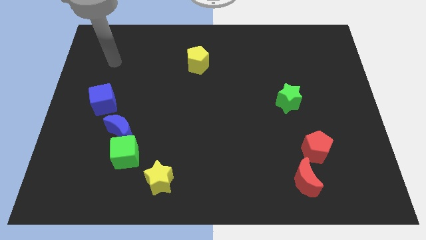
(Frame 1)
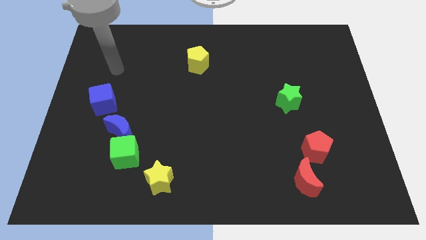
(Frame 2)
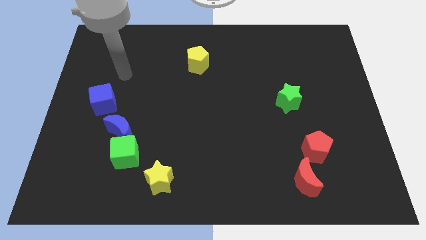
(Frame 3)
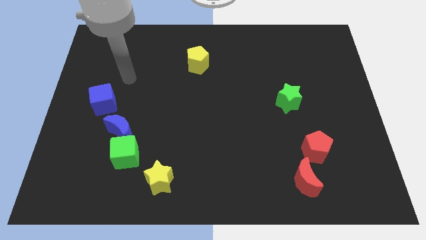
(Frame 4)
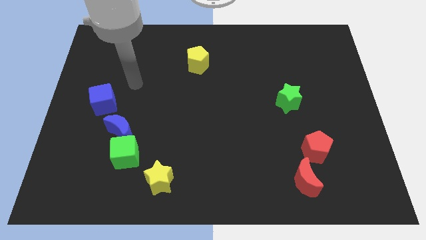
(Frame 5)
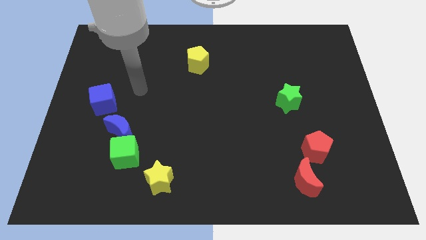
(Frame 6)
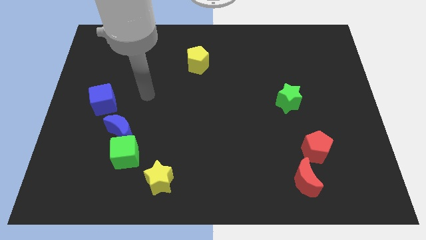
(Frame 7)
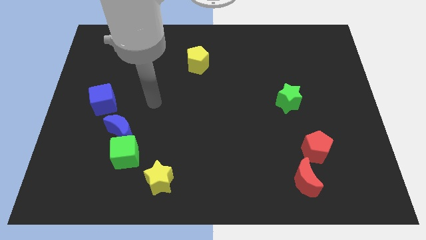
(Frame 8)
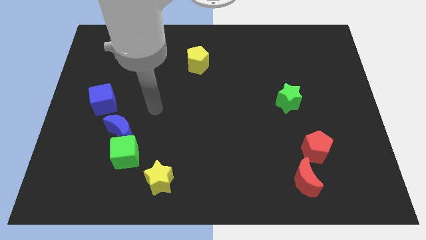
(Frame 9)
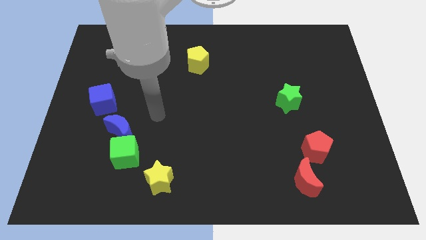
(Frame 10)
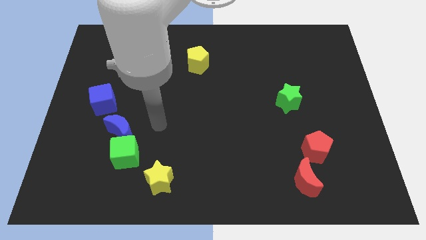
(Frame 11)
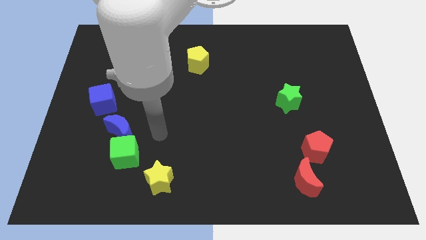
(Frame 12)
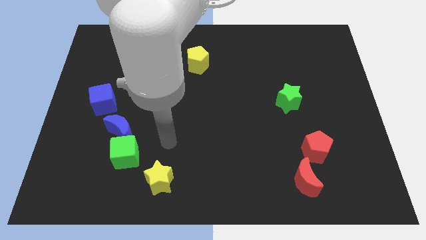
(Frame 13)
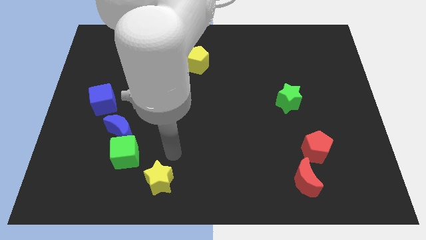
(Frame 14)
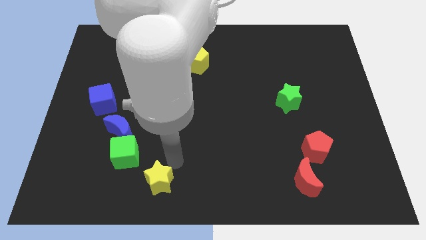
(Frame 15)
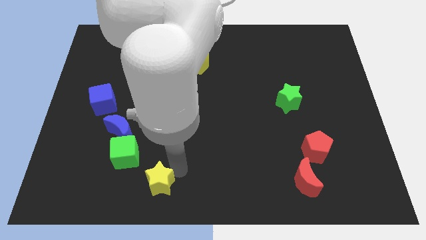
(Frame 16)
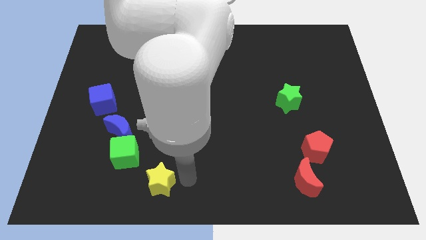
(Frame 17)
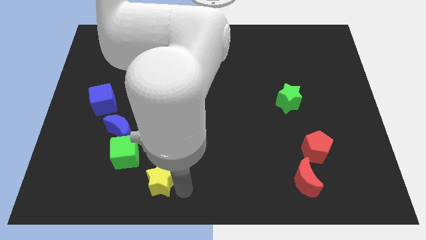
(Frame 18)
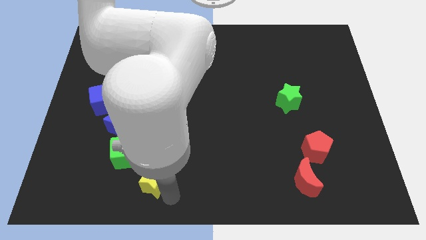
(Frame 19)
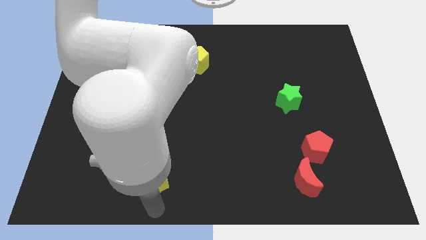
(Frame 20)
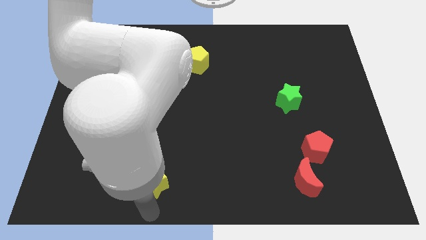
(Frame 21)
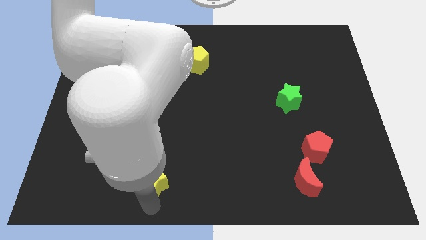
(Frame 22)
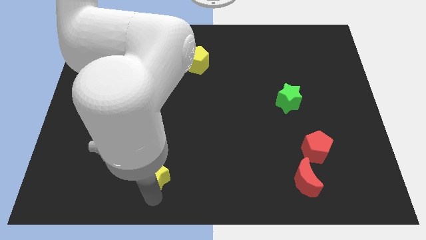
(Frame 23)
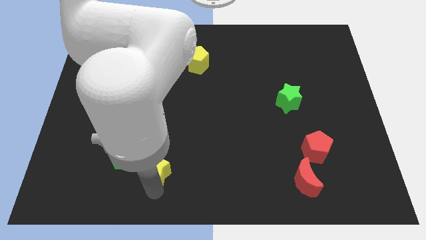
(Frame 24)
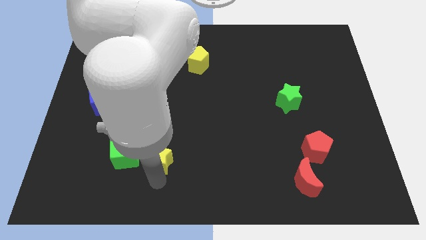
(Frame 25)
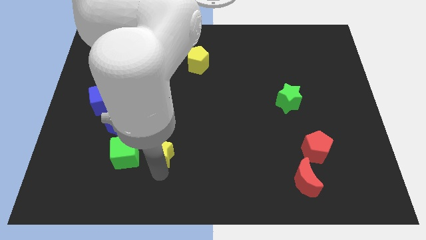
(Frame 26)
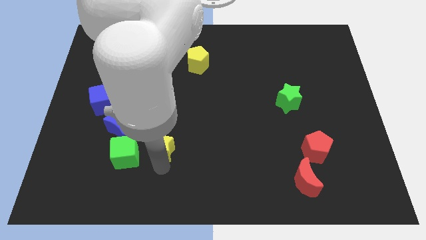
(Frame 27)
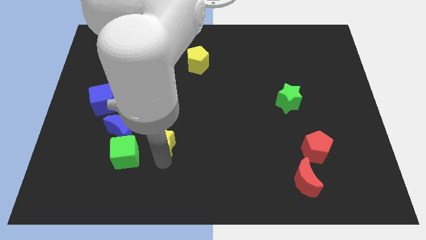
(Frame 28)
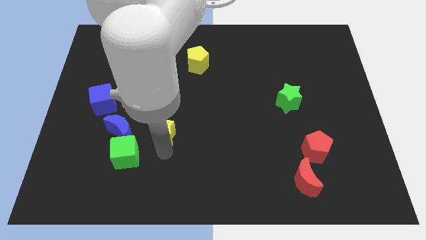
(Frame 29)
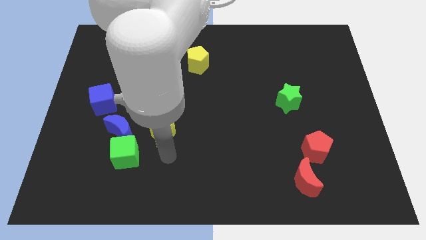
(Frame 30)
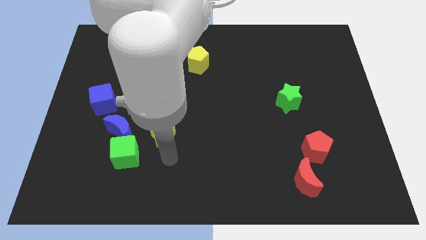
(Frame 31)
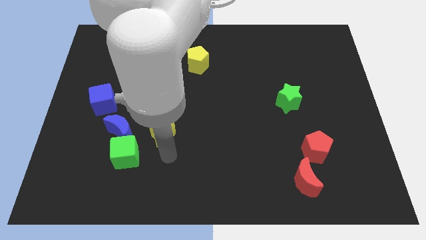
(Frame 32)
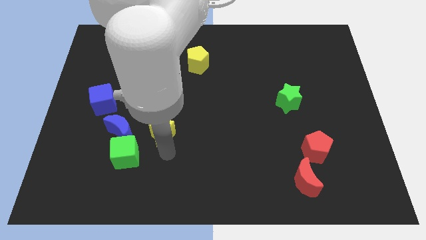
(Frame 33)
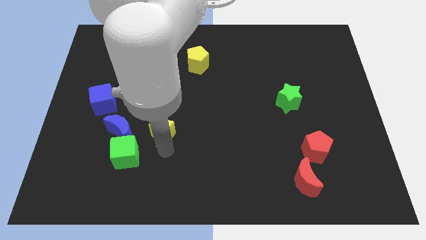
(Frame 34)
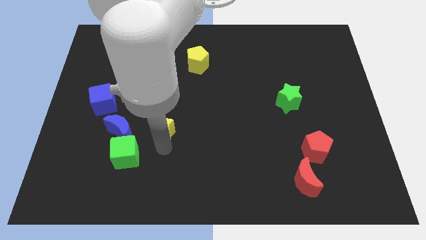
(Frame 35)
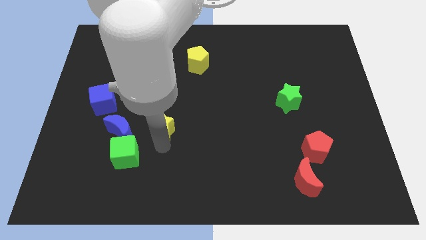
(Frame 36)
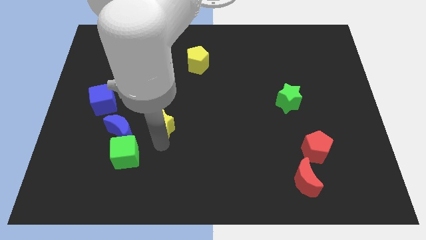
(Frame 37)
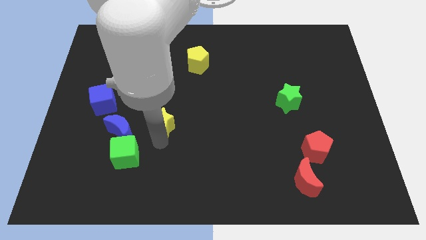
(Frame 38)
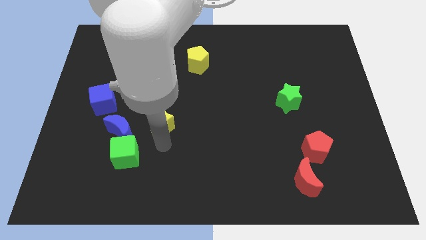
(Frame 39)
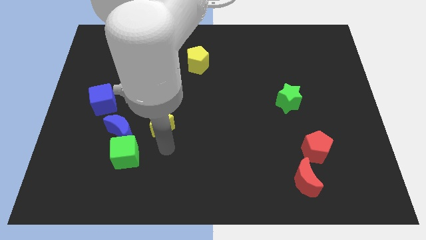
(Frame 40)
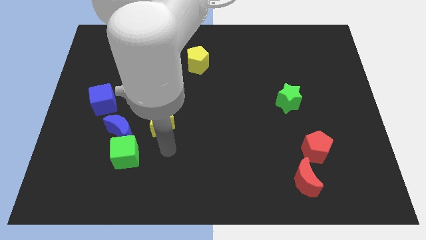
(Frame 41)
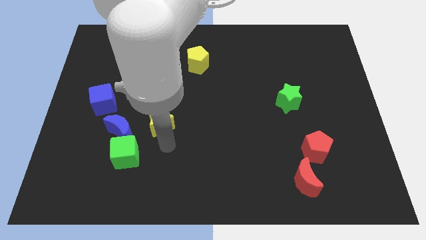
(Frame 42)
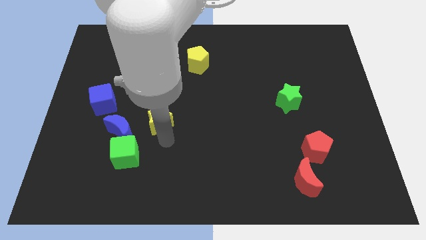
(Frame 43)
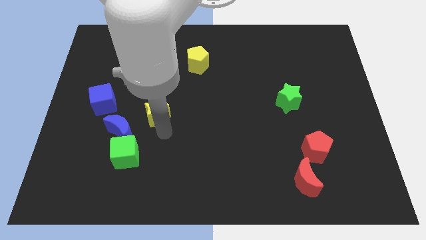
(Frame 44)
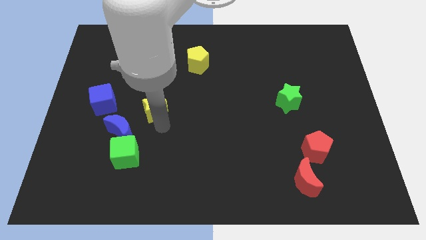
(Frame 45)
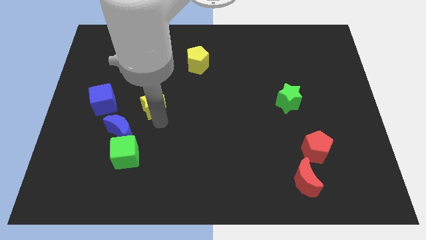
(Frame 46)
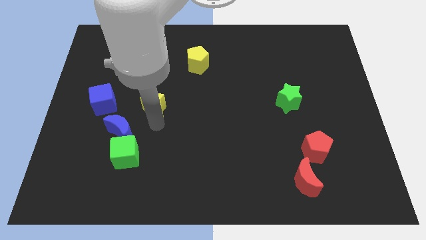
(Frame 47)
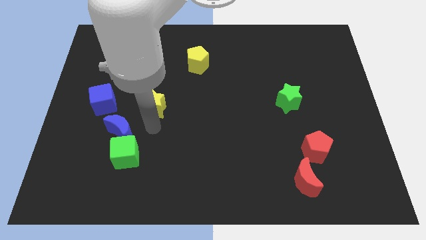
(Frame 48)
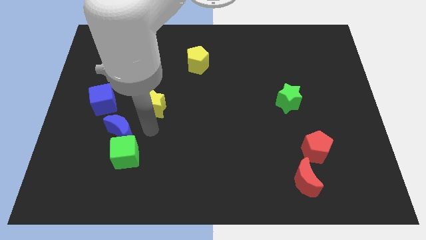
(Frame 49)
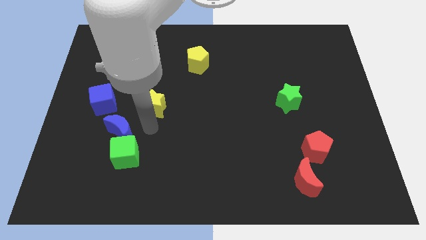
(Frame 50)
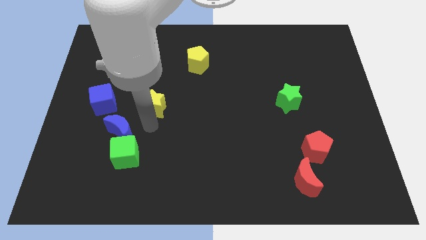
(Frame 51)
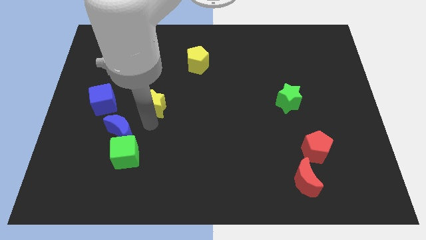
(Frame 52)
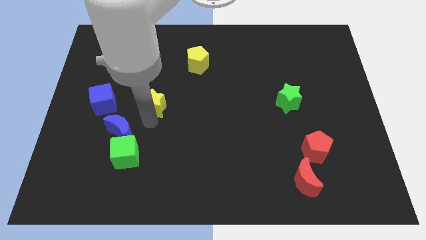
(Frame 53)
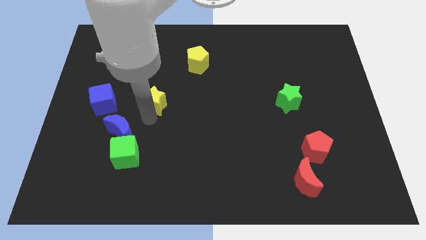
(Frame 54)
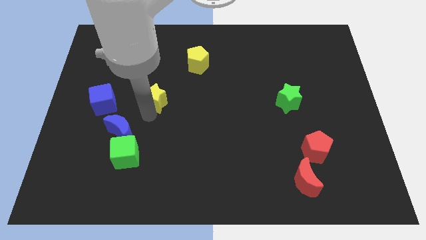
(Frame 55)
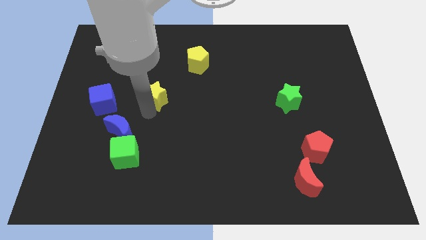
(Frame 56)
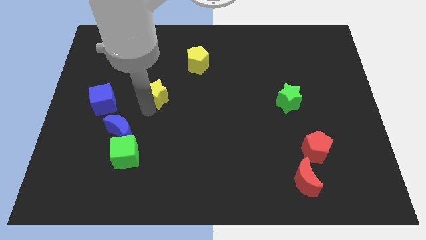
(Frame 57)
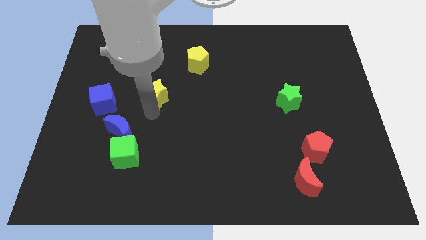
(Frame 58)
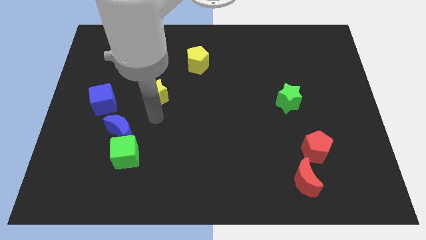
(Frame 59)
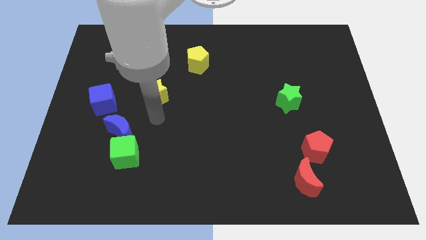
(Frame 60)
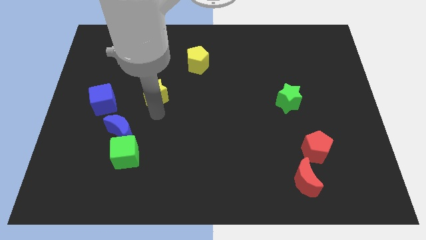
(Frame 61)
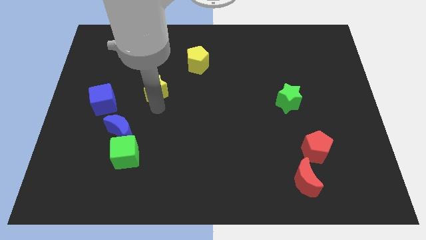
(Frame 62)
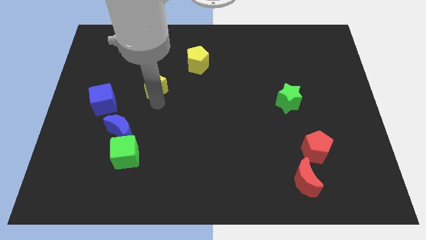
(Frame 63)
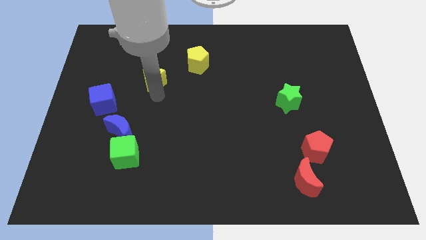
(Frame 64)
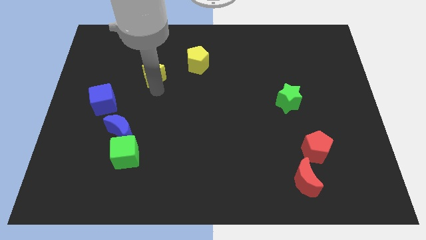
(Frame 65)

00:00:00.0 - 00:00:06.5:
push the yellow star to the left of the yellow pentagon
